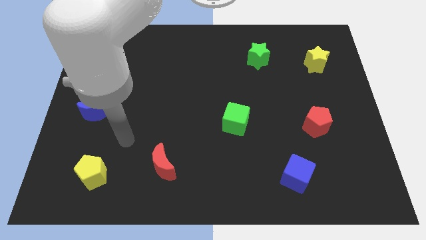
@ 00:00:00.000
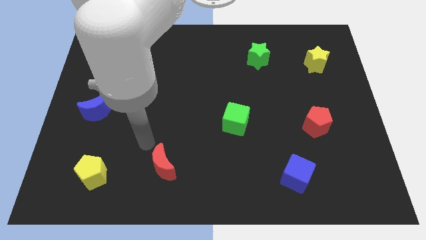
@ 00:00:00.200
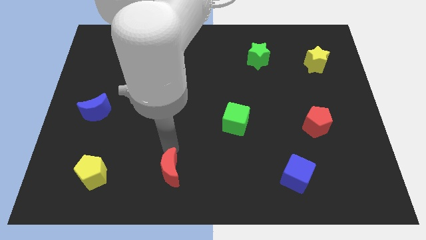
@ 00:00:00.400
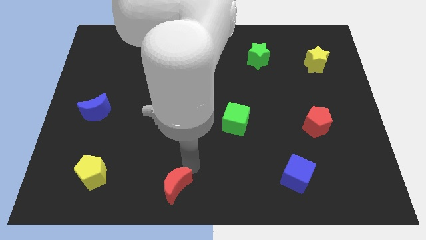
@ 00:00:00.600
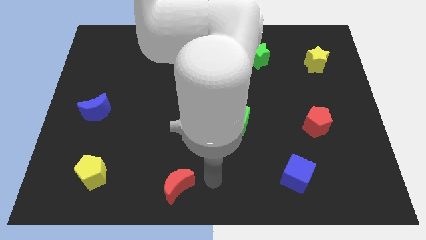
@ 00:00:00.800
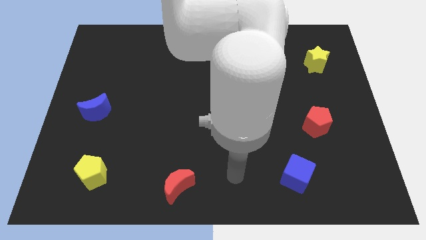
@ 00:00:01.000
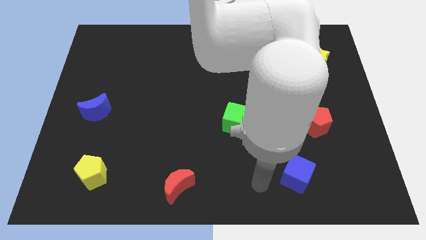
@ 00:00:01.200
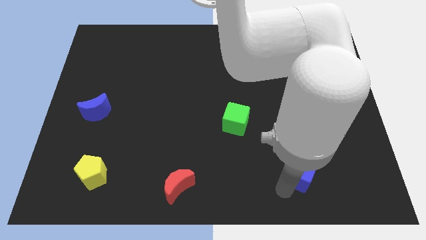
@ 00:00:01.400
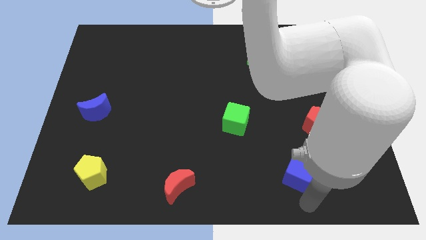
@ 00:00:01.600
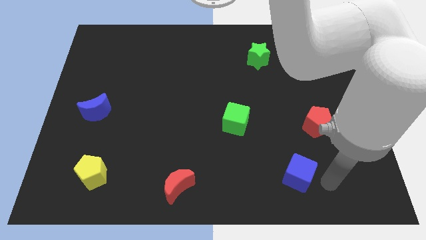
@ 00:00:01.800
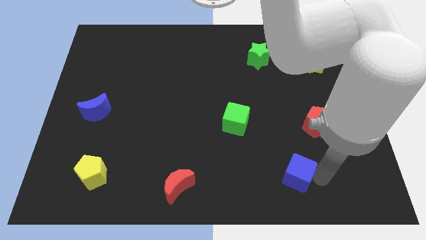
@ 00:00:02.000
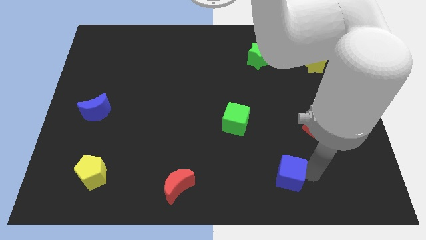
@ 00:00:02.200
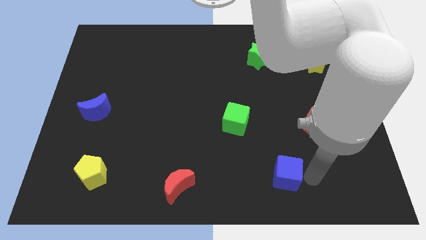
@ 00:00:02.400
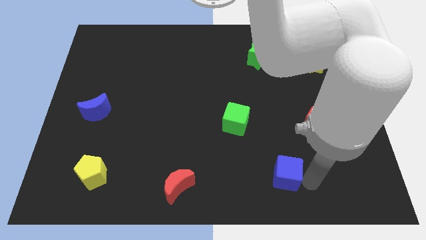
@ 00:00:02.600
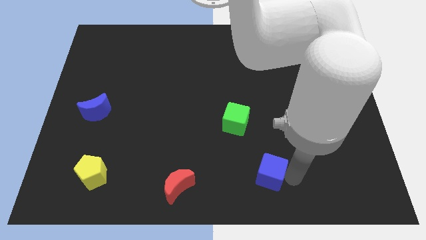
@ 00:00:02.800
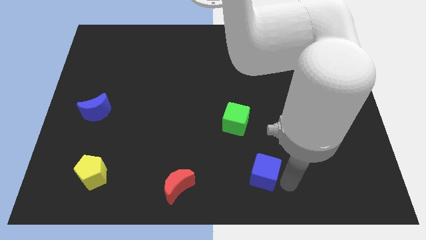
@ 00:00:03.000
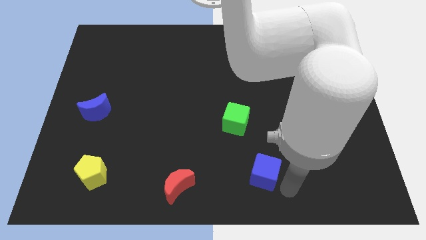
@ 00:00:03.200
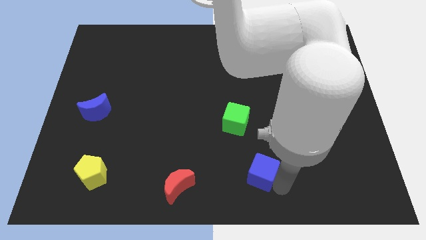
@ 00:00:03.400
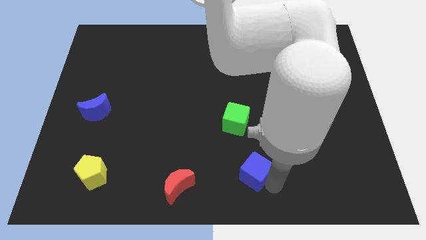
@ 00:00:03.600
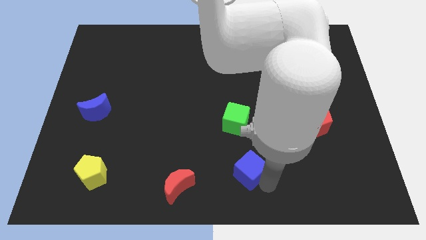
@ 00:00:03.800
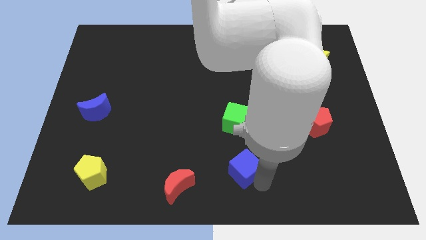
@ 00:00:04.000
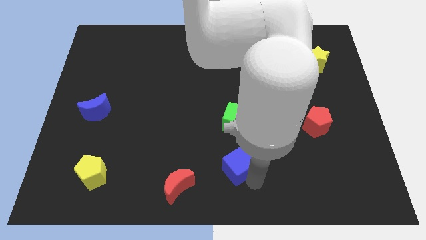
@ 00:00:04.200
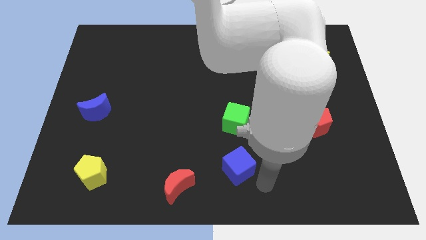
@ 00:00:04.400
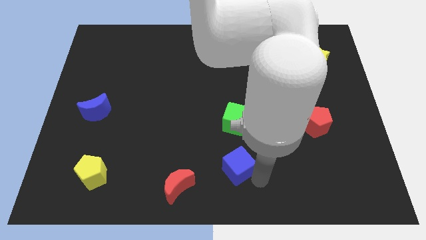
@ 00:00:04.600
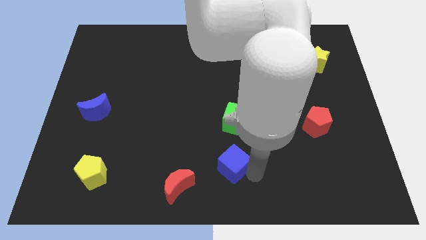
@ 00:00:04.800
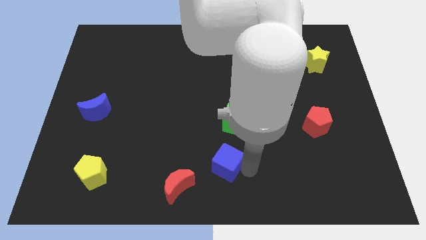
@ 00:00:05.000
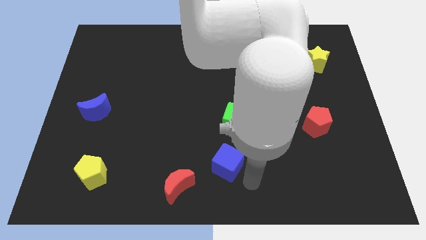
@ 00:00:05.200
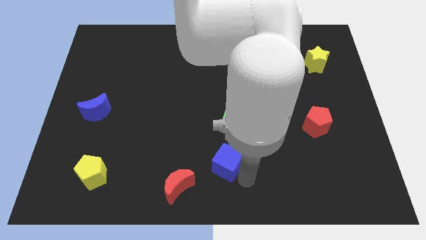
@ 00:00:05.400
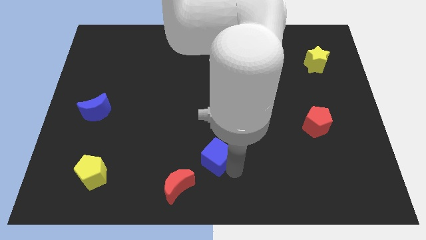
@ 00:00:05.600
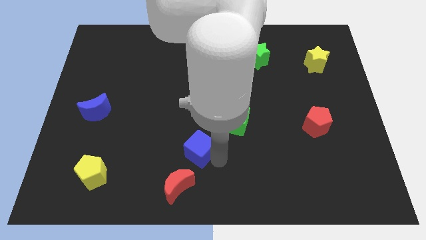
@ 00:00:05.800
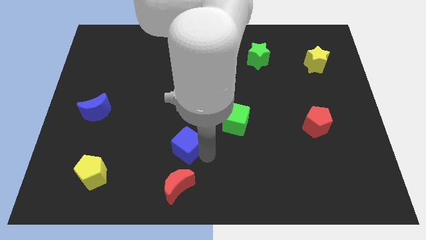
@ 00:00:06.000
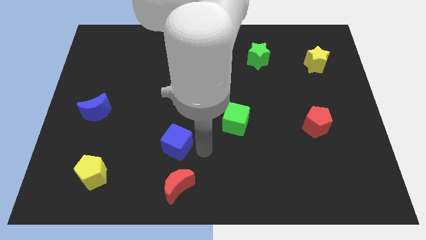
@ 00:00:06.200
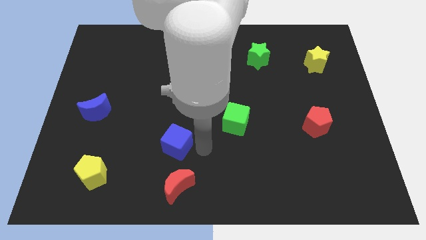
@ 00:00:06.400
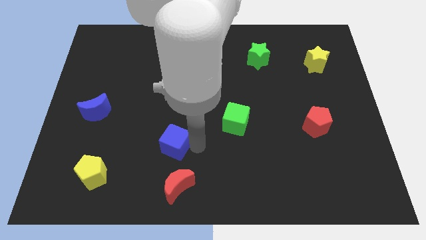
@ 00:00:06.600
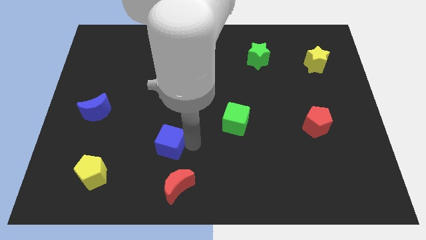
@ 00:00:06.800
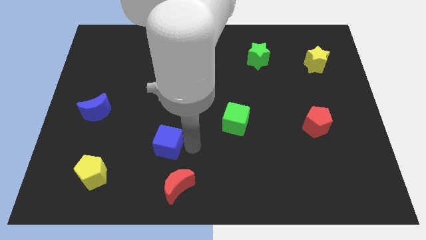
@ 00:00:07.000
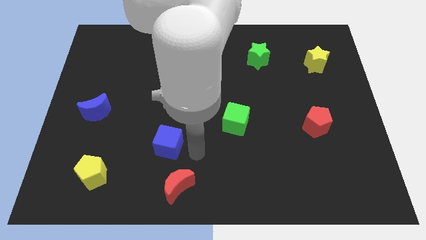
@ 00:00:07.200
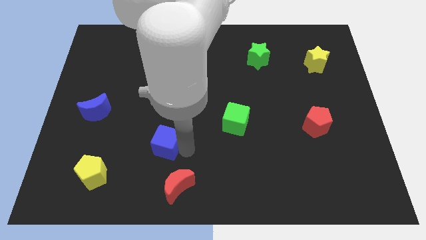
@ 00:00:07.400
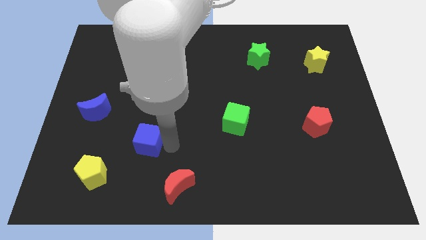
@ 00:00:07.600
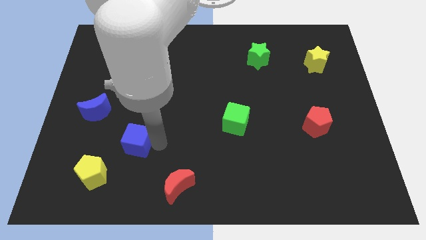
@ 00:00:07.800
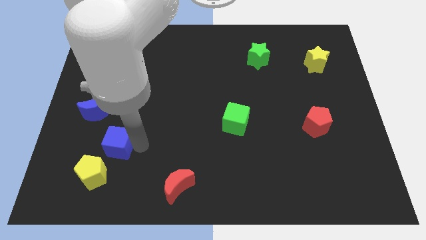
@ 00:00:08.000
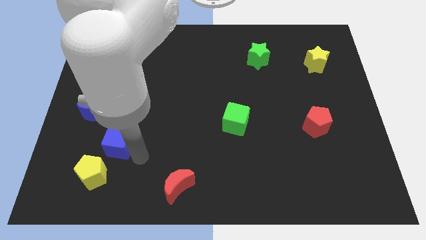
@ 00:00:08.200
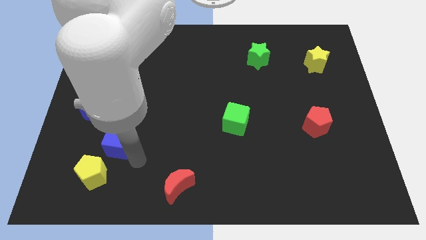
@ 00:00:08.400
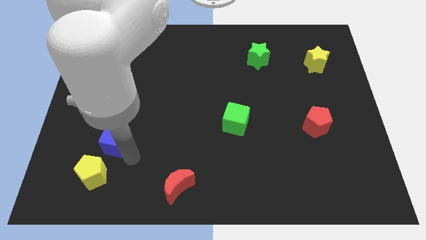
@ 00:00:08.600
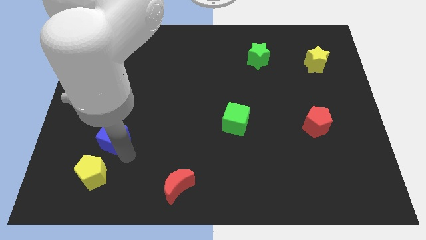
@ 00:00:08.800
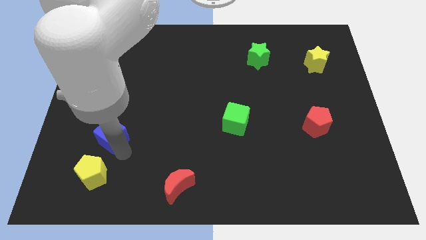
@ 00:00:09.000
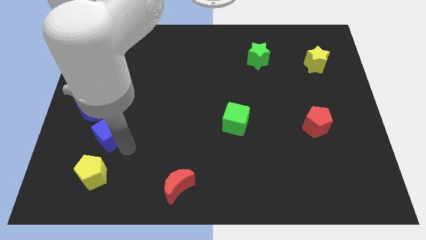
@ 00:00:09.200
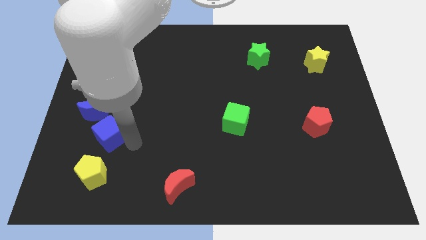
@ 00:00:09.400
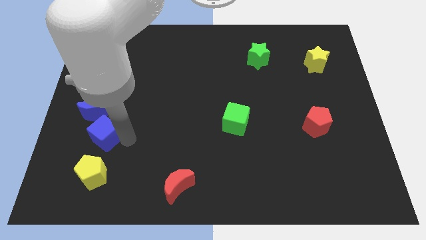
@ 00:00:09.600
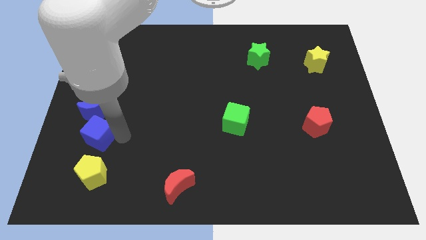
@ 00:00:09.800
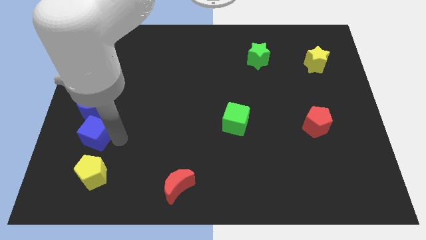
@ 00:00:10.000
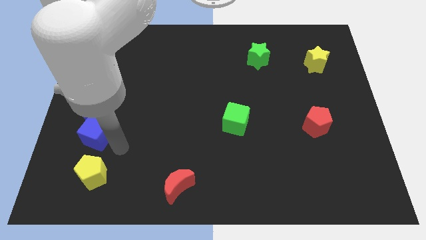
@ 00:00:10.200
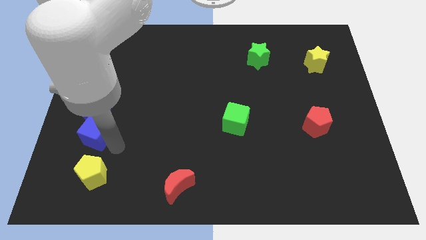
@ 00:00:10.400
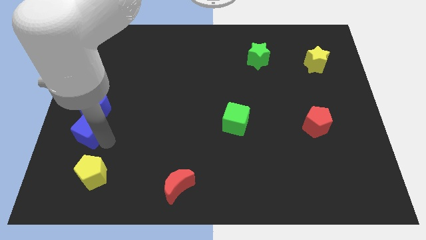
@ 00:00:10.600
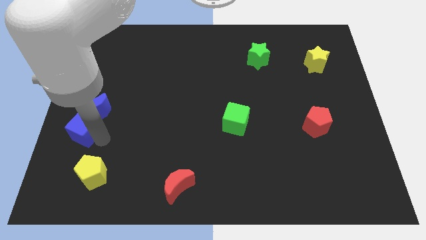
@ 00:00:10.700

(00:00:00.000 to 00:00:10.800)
put the blue cube to the left side
